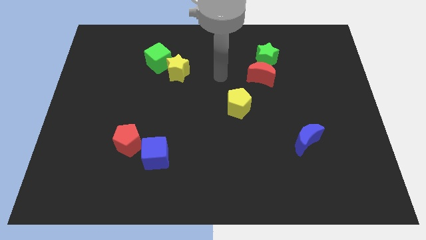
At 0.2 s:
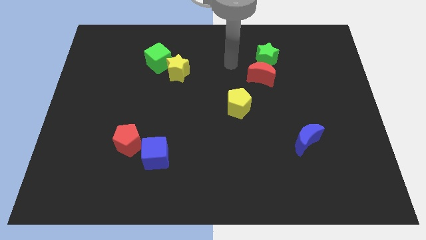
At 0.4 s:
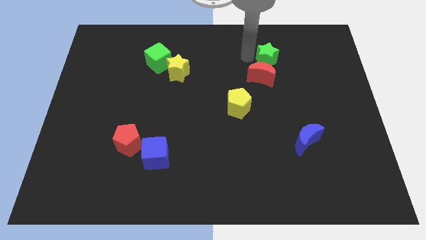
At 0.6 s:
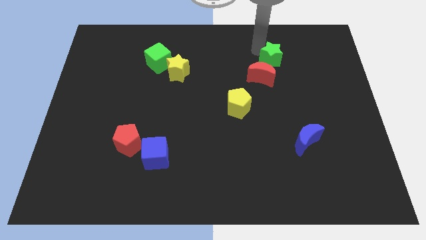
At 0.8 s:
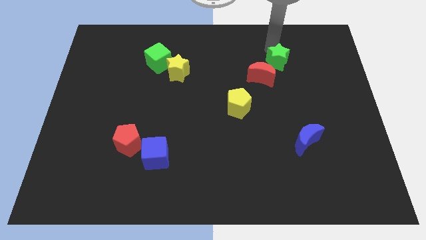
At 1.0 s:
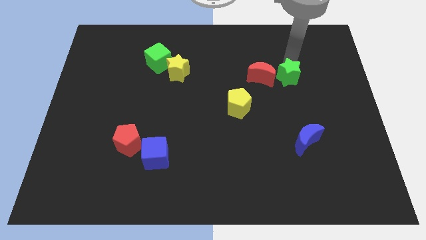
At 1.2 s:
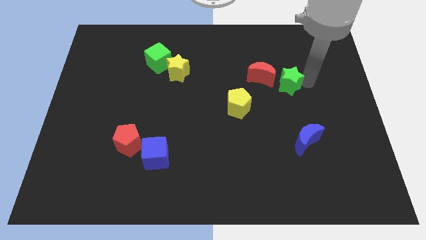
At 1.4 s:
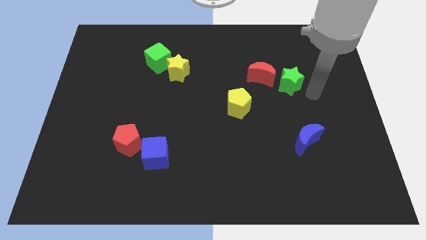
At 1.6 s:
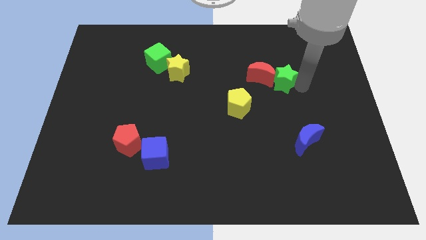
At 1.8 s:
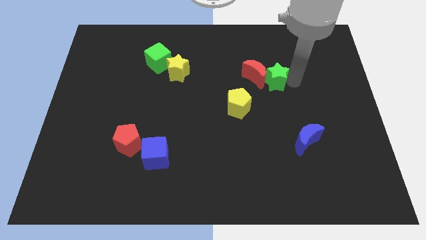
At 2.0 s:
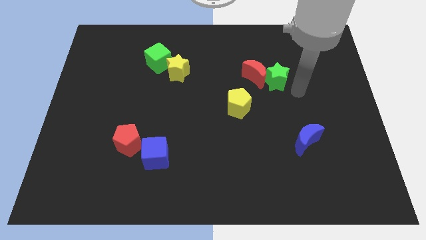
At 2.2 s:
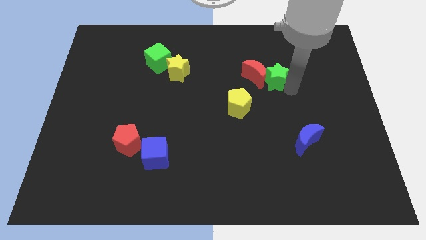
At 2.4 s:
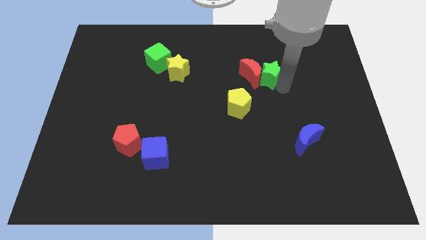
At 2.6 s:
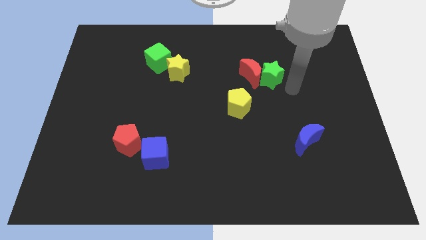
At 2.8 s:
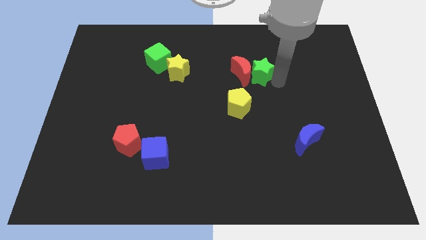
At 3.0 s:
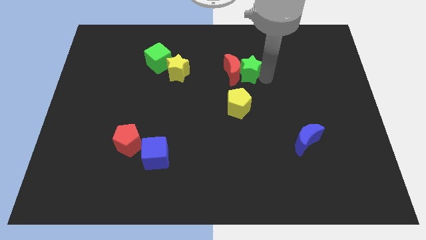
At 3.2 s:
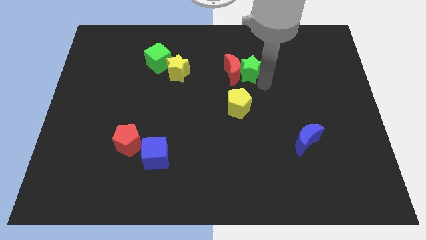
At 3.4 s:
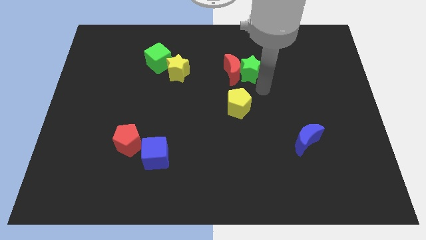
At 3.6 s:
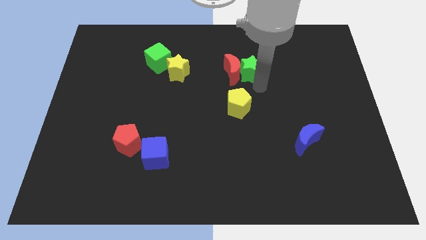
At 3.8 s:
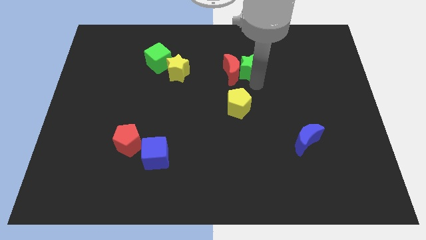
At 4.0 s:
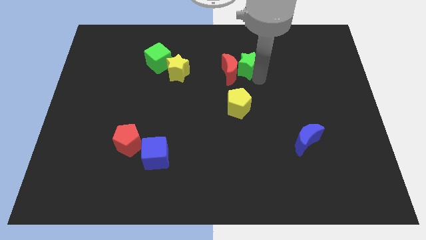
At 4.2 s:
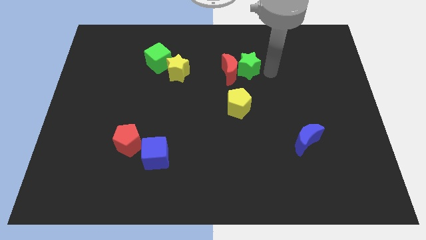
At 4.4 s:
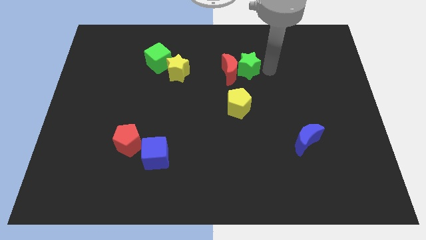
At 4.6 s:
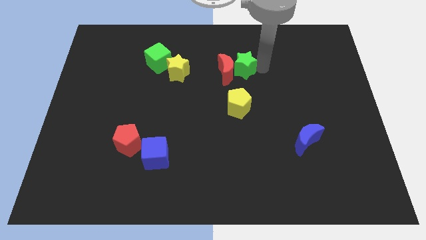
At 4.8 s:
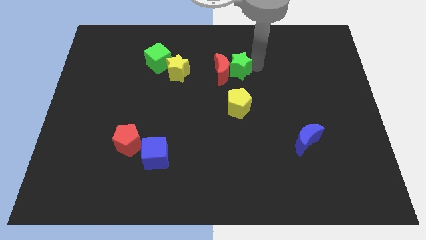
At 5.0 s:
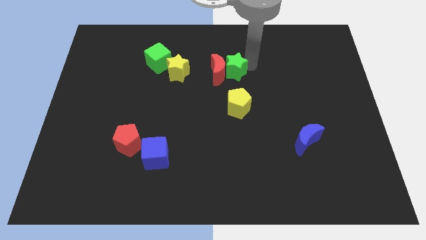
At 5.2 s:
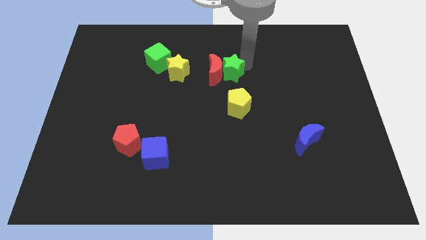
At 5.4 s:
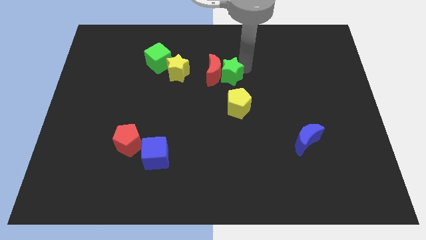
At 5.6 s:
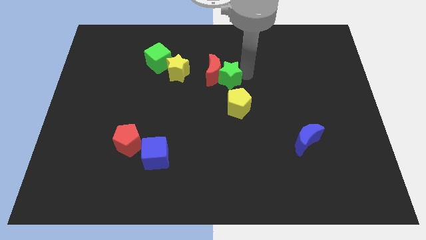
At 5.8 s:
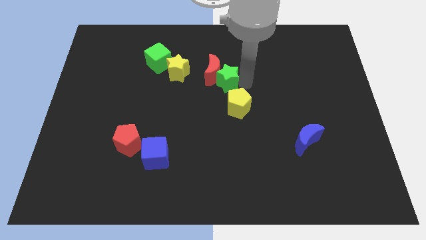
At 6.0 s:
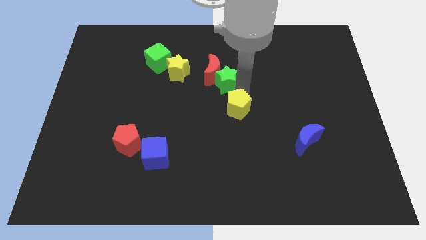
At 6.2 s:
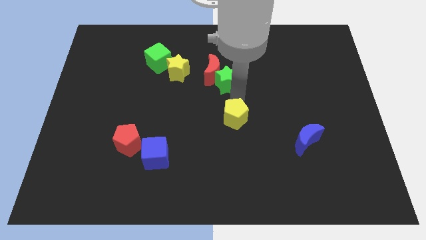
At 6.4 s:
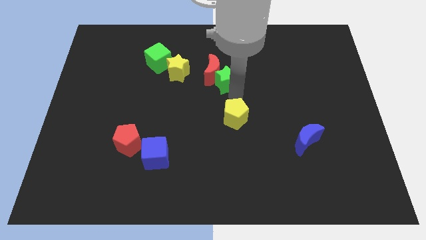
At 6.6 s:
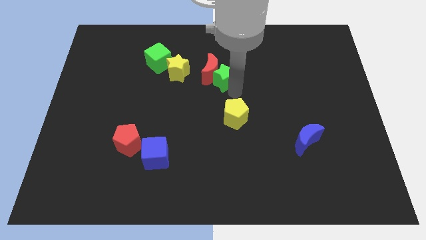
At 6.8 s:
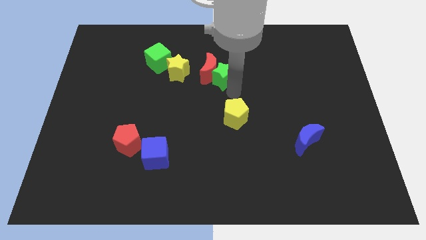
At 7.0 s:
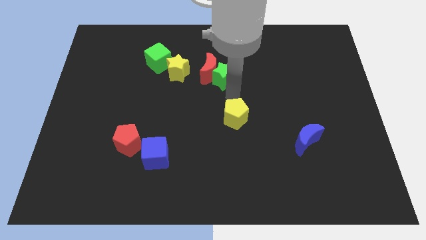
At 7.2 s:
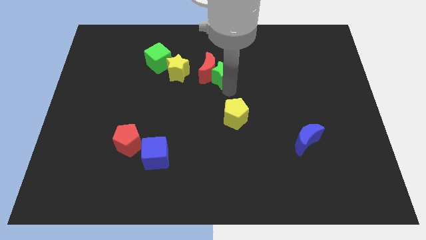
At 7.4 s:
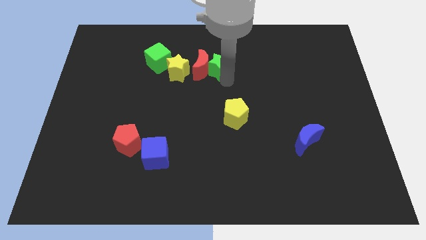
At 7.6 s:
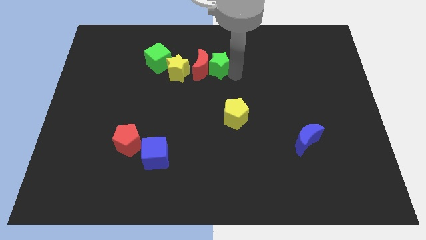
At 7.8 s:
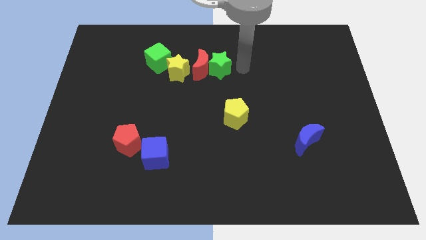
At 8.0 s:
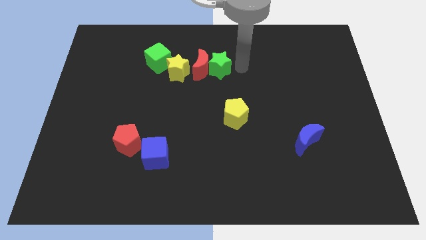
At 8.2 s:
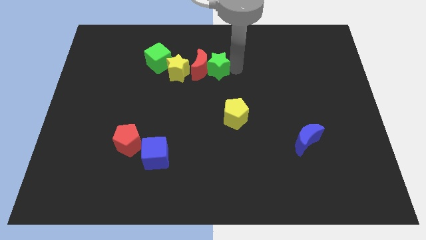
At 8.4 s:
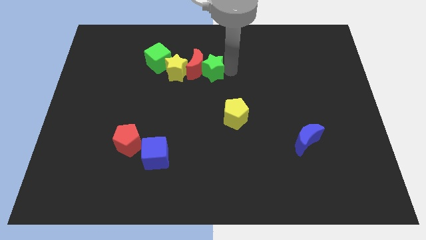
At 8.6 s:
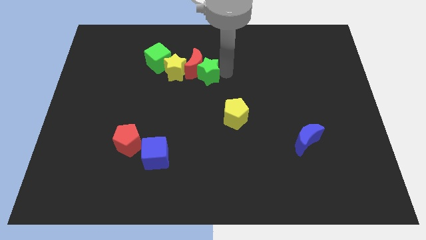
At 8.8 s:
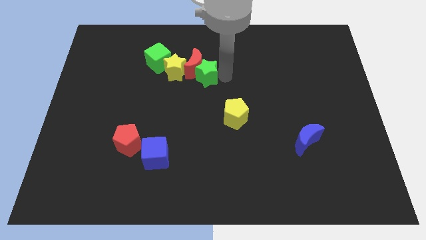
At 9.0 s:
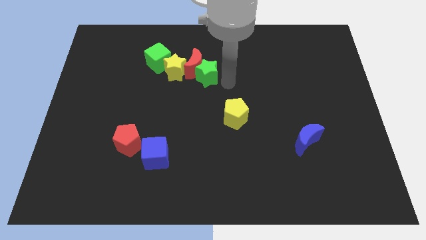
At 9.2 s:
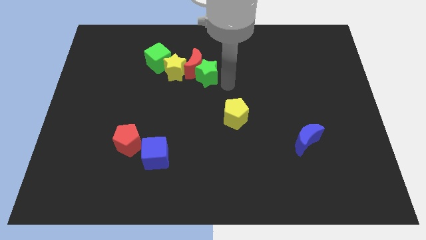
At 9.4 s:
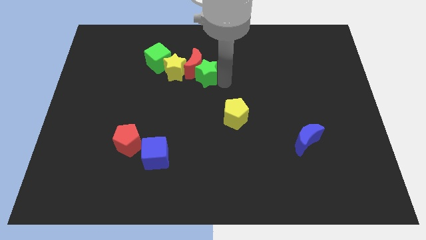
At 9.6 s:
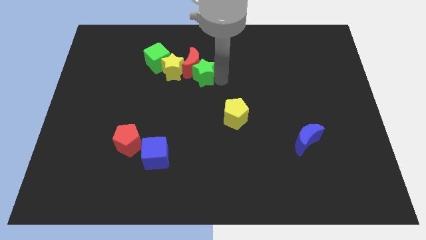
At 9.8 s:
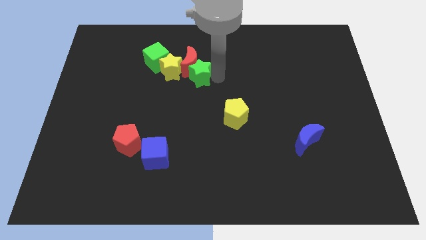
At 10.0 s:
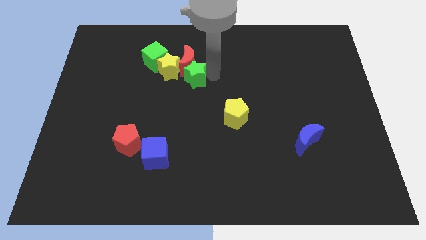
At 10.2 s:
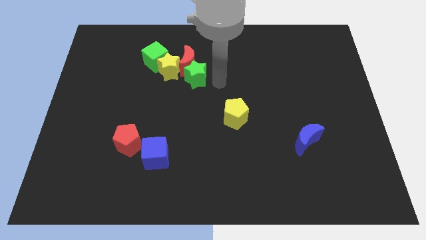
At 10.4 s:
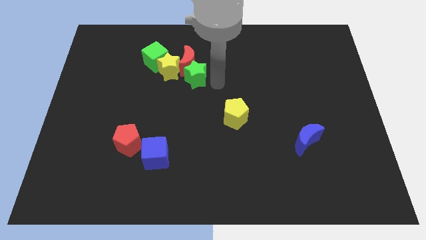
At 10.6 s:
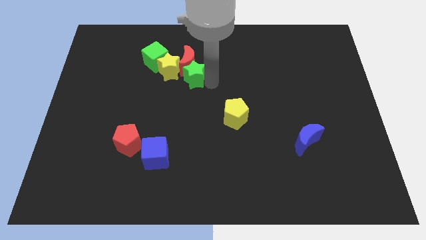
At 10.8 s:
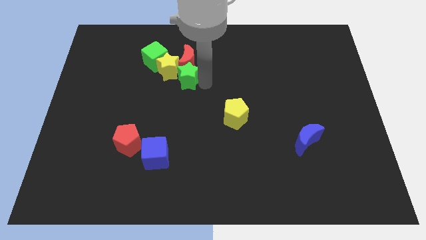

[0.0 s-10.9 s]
push the green star close to the yellow star

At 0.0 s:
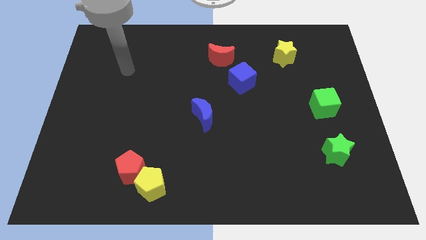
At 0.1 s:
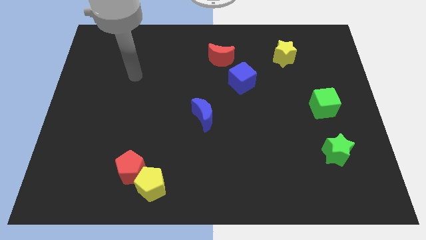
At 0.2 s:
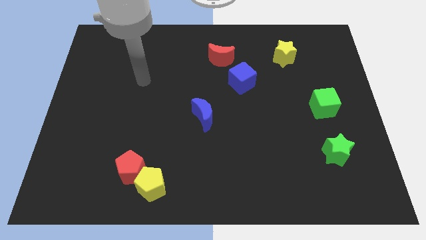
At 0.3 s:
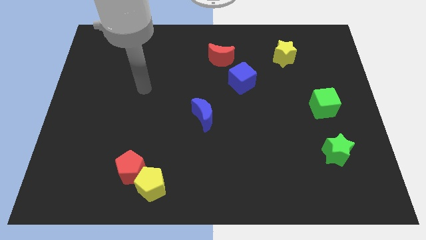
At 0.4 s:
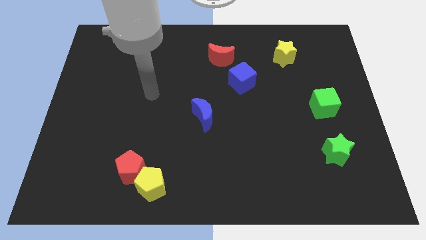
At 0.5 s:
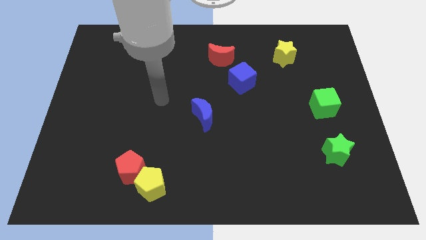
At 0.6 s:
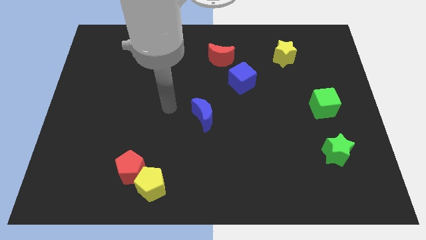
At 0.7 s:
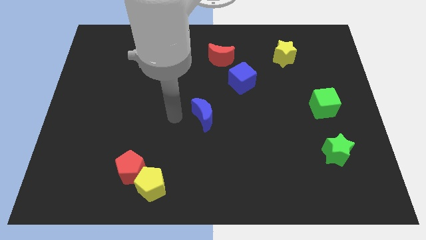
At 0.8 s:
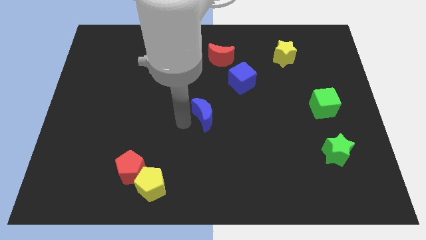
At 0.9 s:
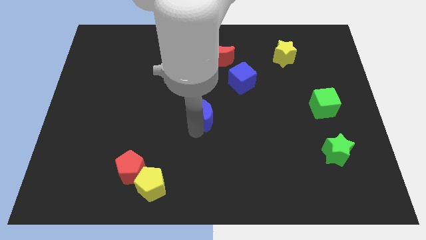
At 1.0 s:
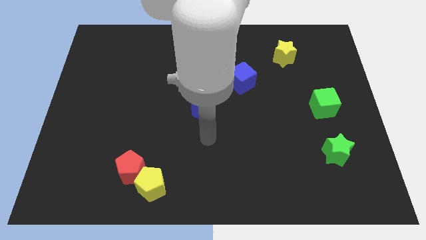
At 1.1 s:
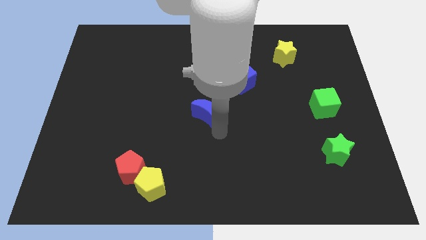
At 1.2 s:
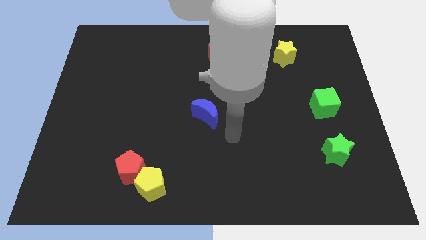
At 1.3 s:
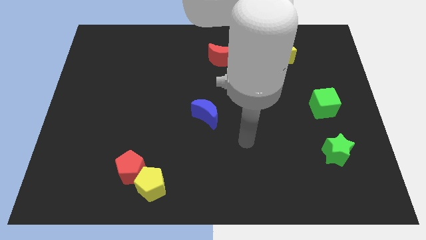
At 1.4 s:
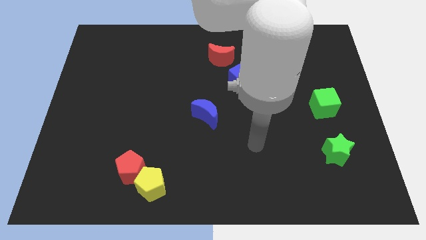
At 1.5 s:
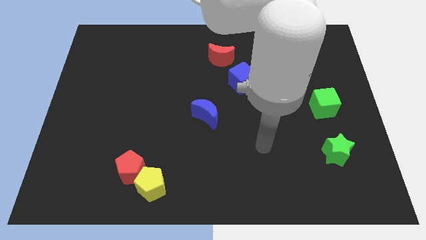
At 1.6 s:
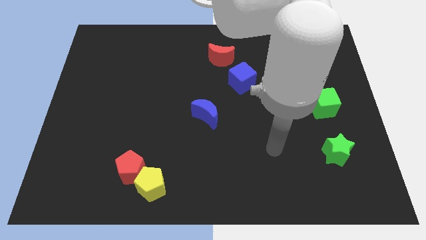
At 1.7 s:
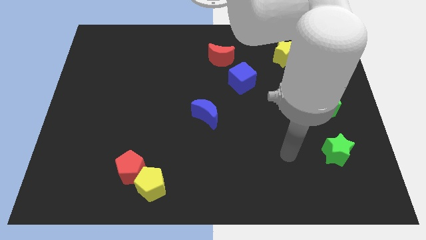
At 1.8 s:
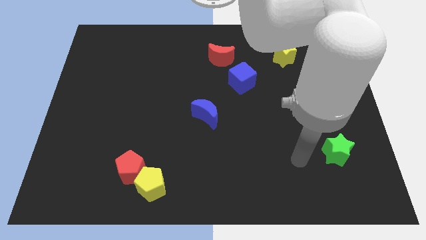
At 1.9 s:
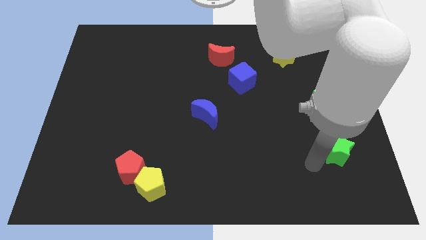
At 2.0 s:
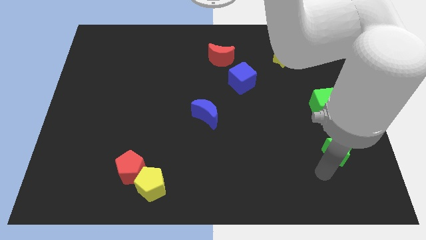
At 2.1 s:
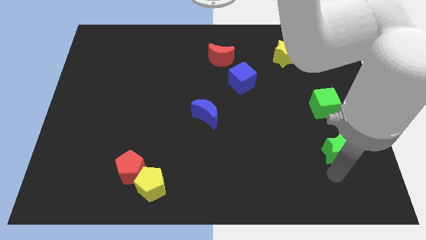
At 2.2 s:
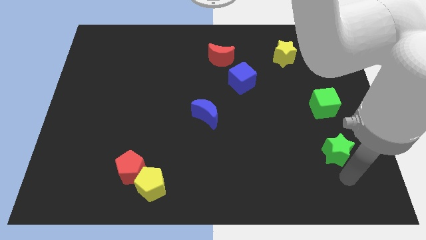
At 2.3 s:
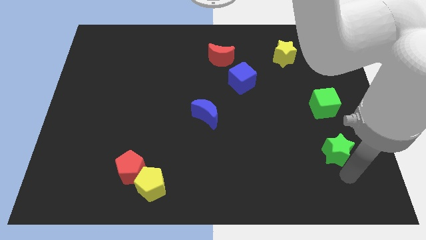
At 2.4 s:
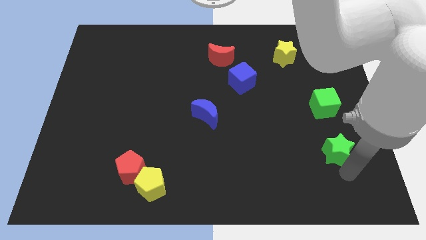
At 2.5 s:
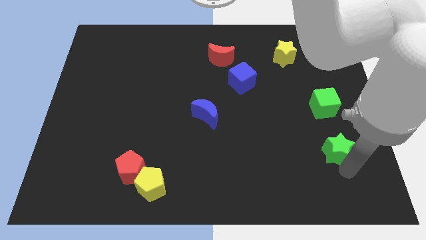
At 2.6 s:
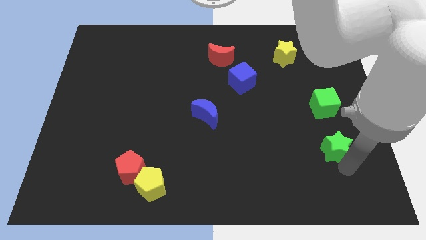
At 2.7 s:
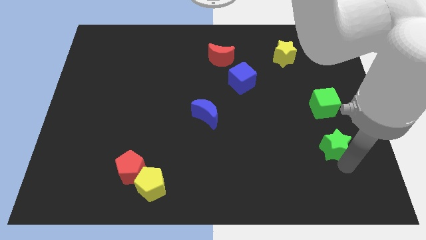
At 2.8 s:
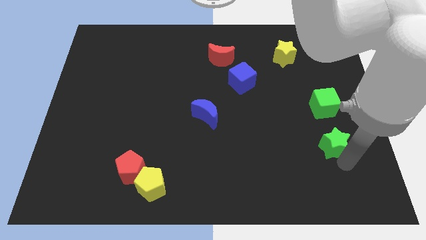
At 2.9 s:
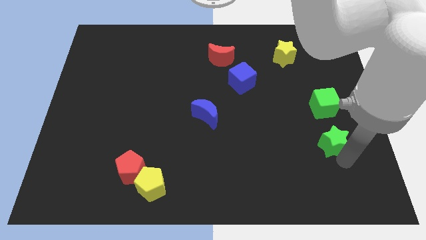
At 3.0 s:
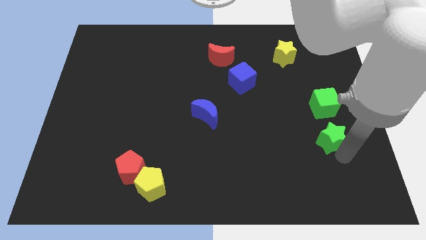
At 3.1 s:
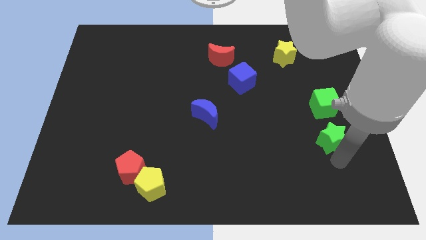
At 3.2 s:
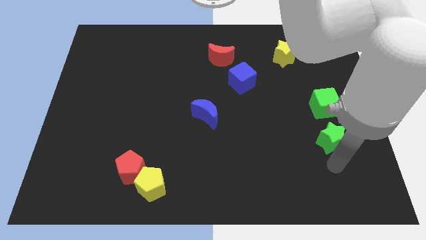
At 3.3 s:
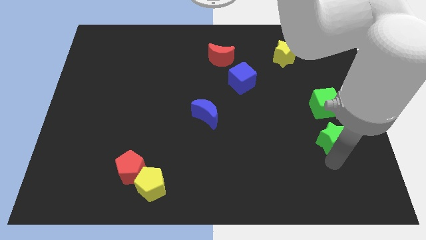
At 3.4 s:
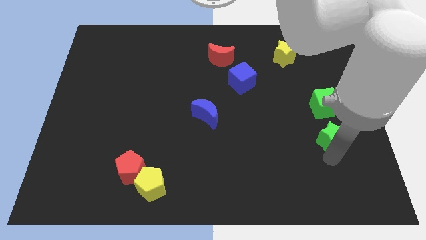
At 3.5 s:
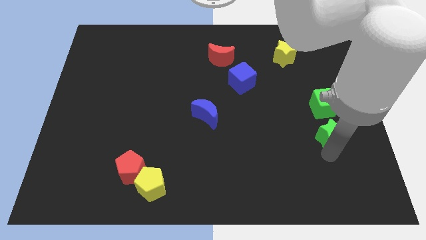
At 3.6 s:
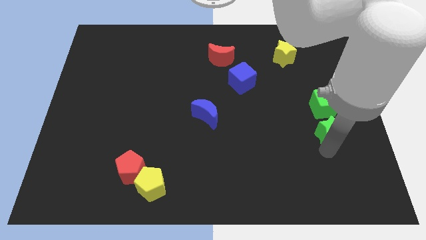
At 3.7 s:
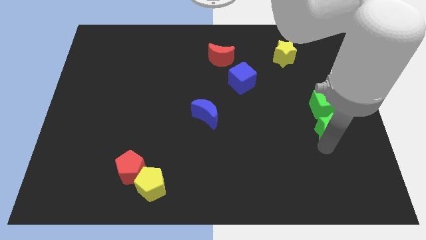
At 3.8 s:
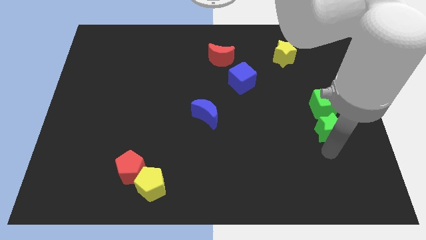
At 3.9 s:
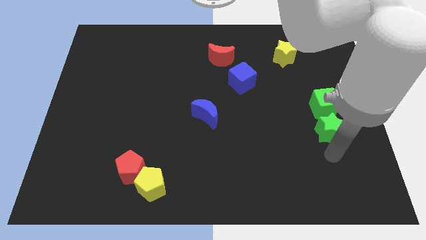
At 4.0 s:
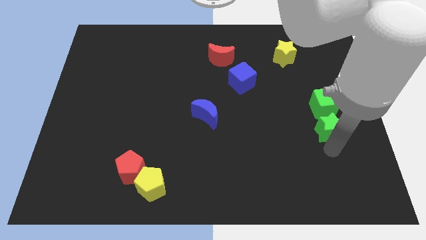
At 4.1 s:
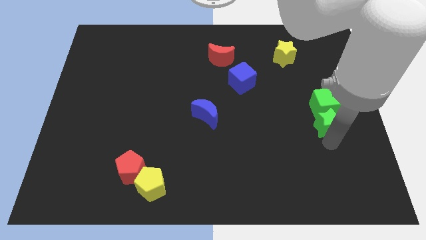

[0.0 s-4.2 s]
move the green star to the green cube
